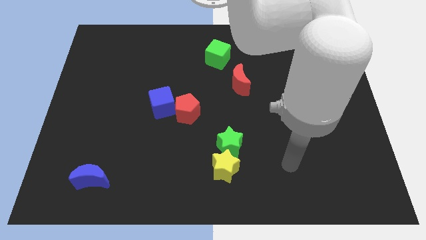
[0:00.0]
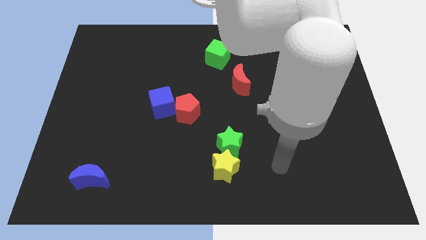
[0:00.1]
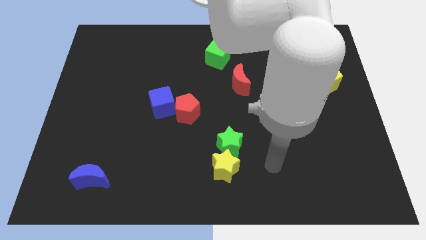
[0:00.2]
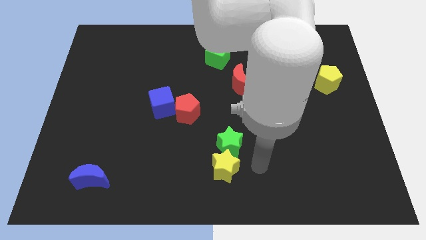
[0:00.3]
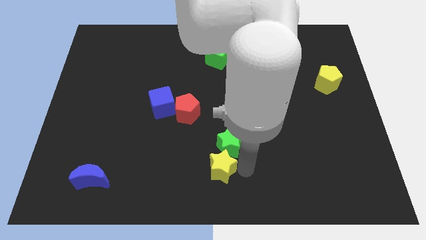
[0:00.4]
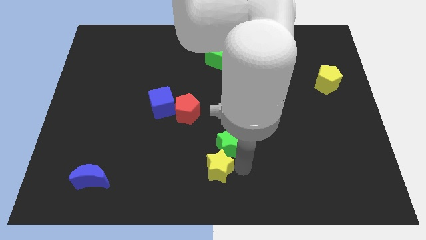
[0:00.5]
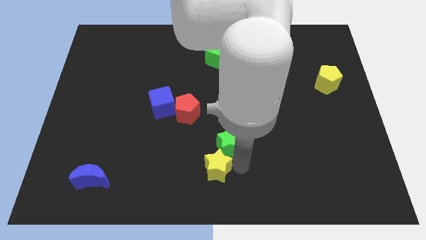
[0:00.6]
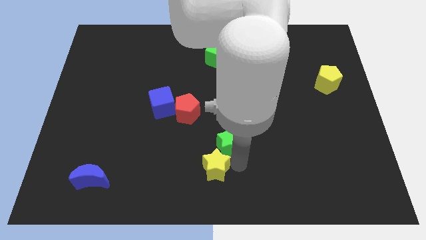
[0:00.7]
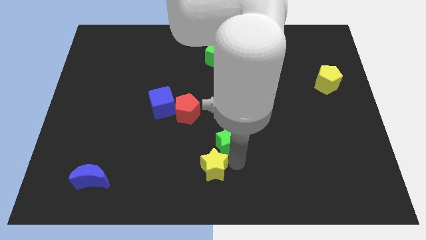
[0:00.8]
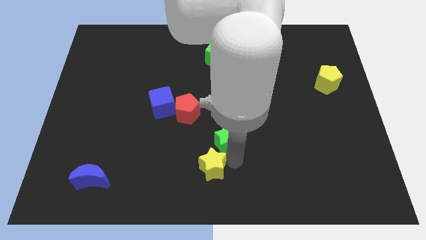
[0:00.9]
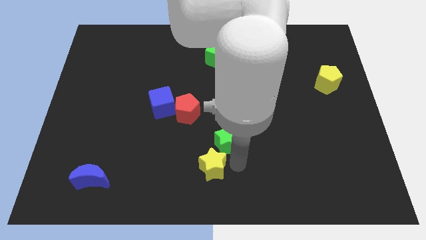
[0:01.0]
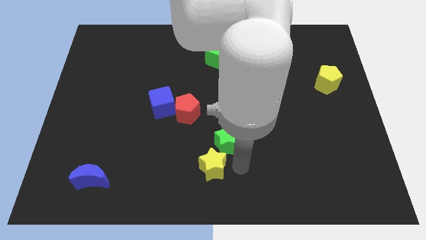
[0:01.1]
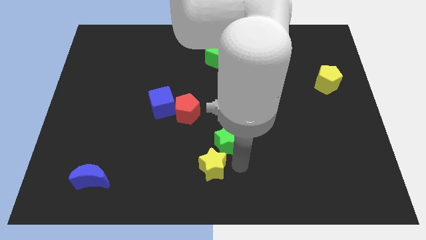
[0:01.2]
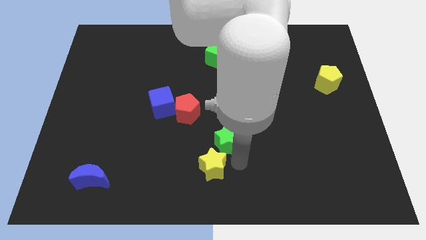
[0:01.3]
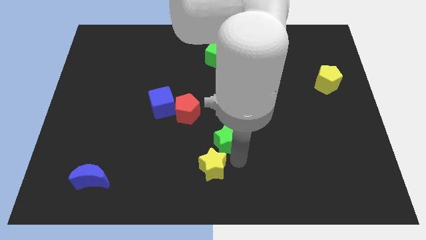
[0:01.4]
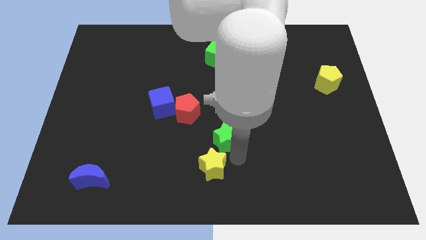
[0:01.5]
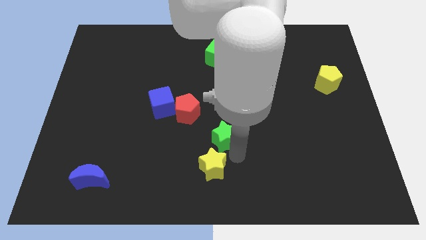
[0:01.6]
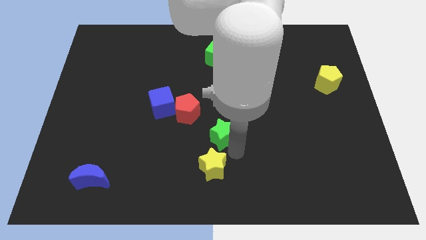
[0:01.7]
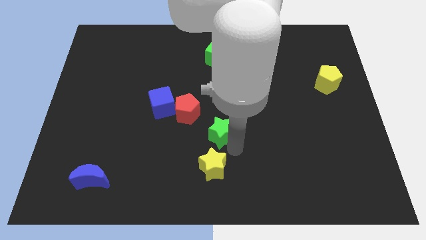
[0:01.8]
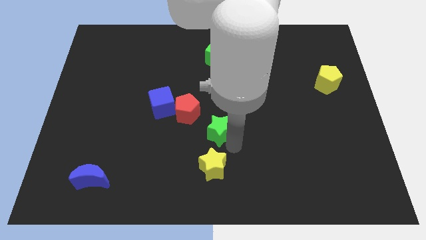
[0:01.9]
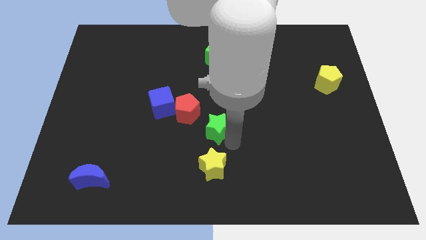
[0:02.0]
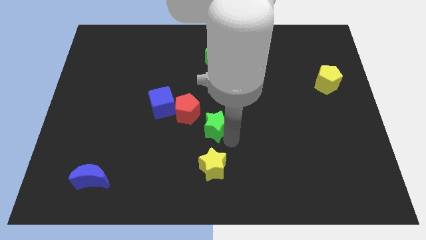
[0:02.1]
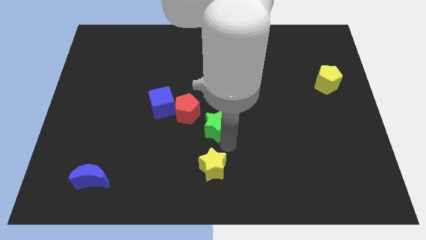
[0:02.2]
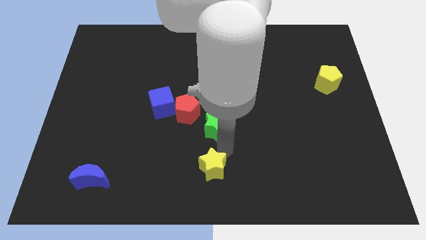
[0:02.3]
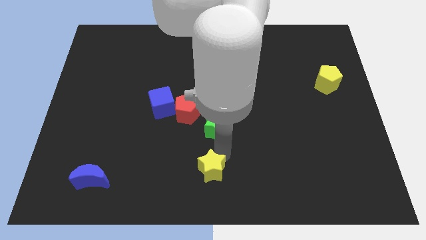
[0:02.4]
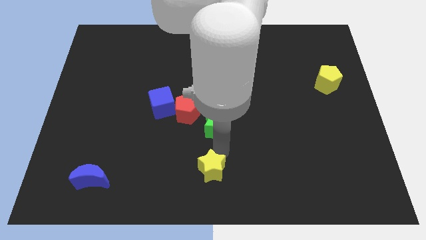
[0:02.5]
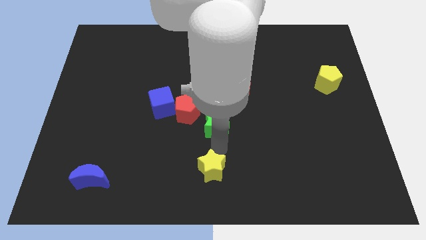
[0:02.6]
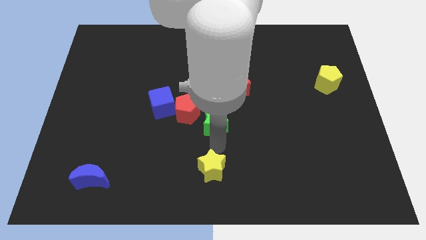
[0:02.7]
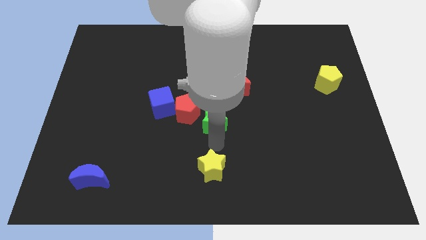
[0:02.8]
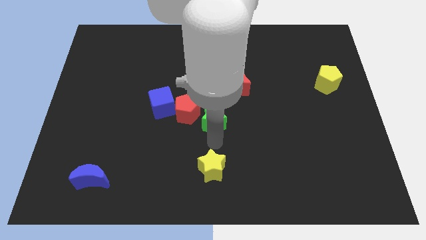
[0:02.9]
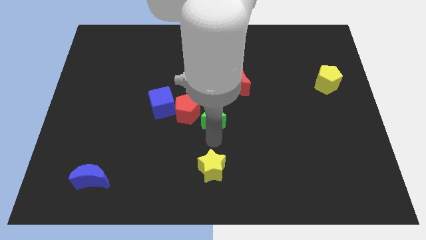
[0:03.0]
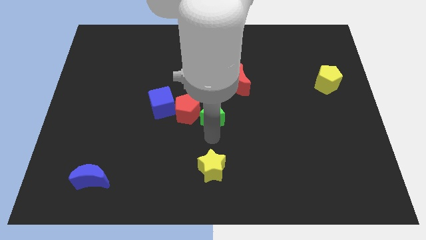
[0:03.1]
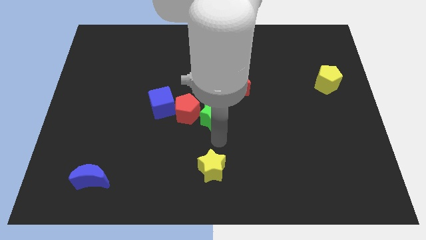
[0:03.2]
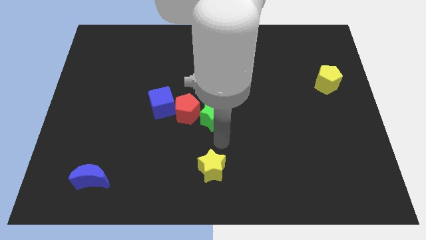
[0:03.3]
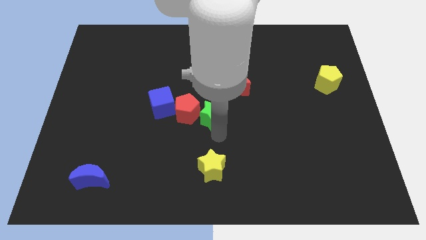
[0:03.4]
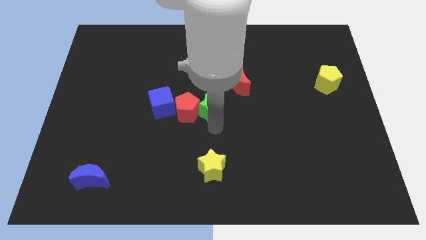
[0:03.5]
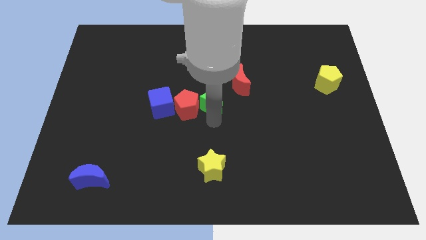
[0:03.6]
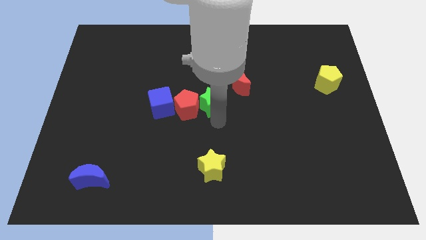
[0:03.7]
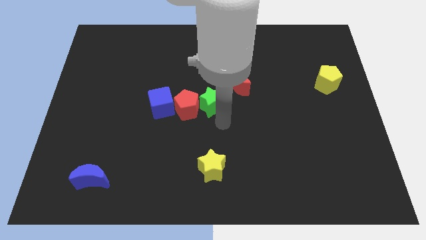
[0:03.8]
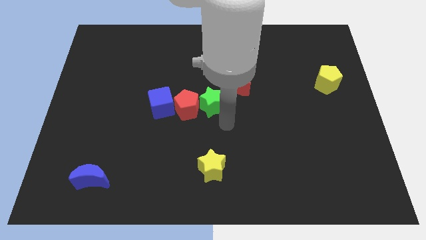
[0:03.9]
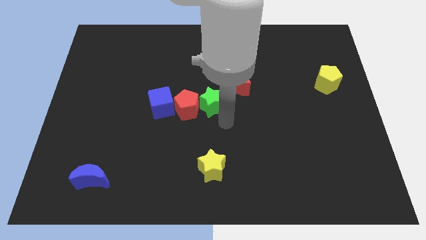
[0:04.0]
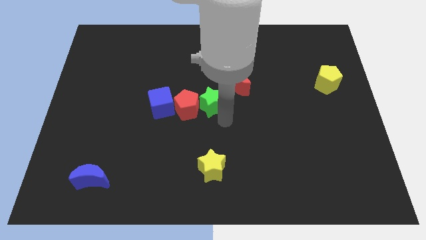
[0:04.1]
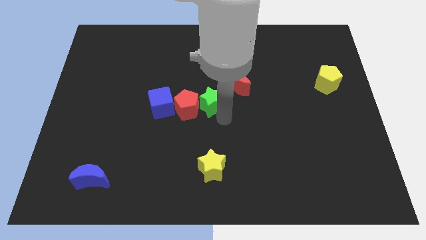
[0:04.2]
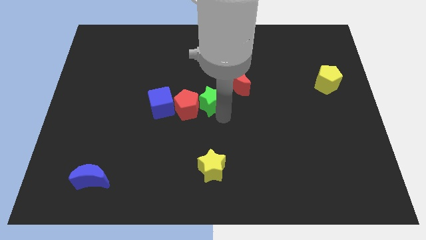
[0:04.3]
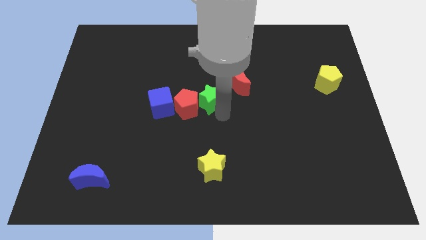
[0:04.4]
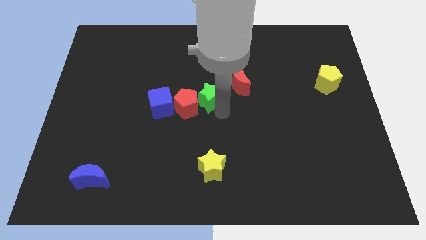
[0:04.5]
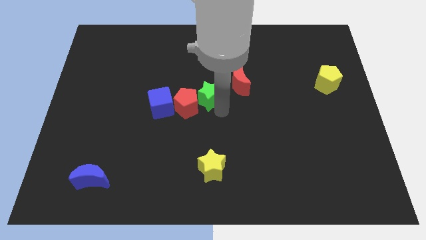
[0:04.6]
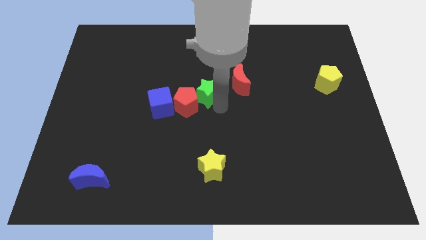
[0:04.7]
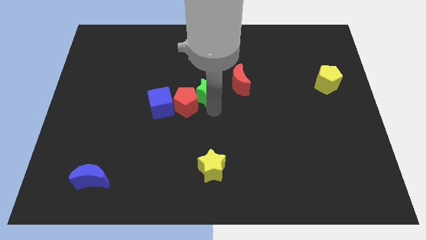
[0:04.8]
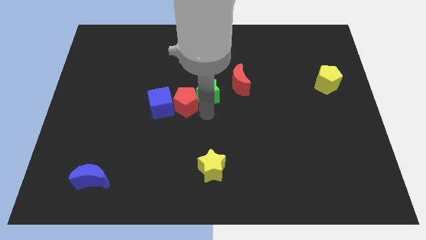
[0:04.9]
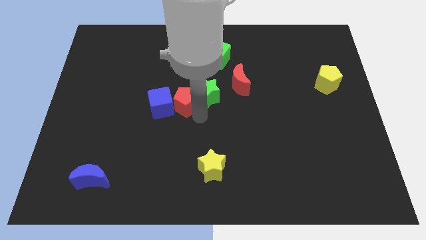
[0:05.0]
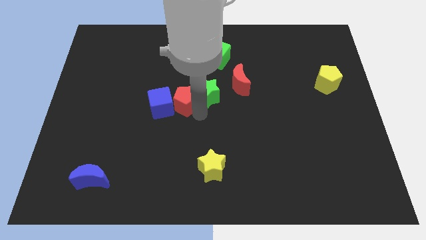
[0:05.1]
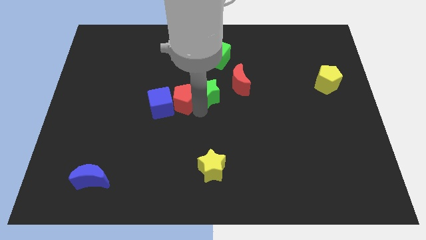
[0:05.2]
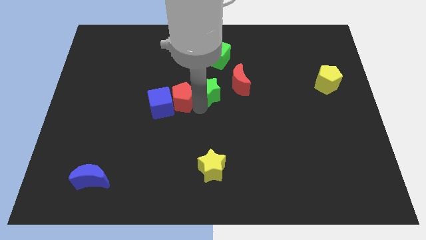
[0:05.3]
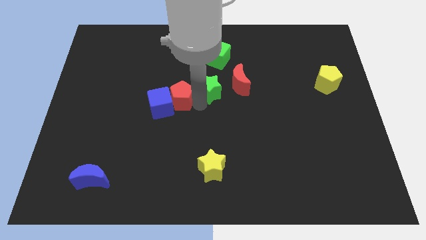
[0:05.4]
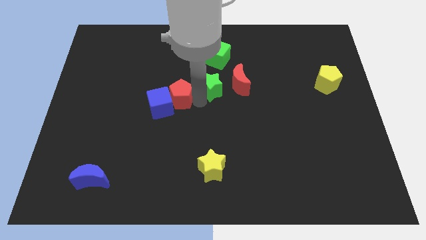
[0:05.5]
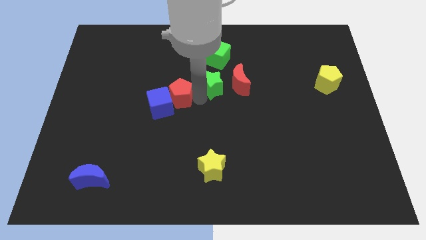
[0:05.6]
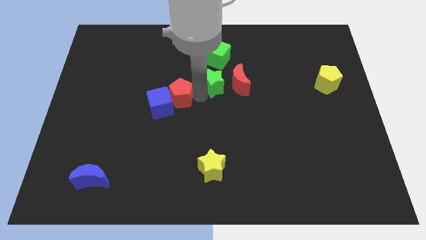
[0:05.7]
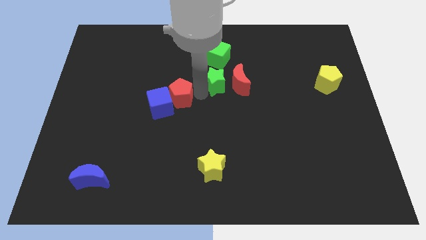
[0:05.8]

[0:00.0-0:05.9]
move the green star to the top left side of the red moon
